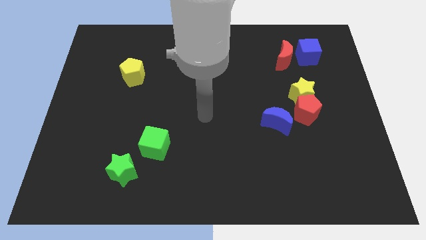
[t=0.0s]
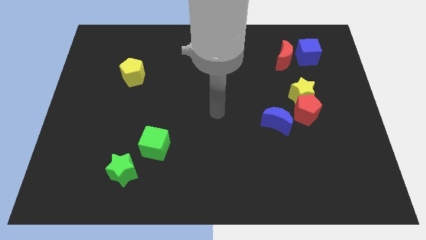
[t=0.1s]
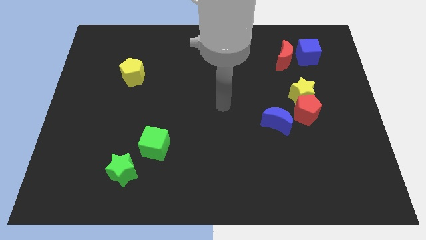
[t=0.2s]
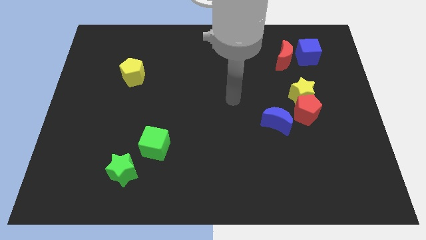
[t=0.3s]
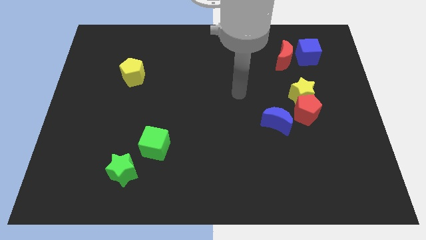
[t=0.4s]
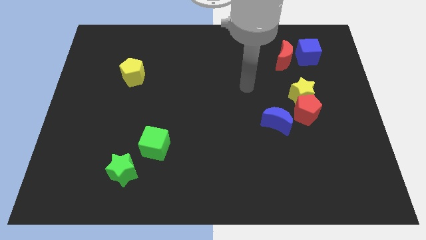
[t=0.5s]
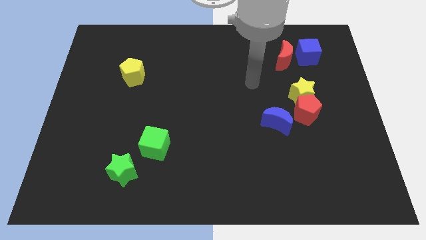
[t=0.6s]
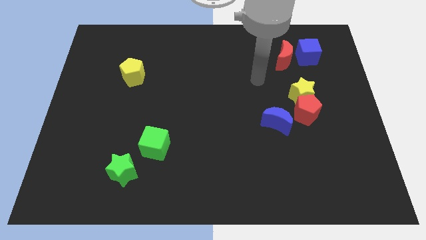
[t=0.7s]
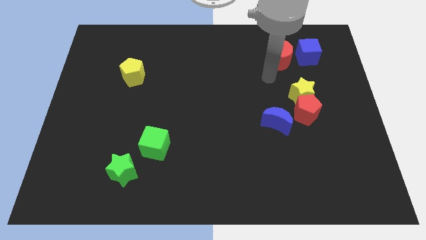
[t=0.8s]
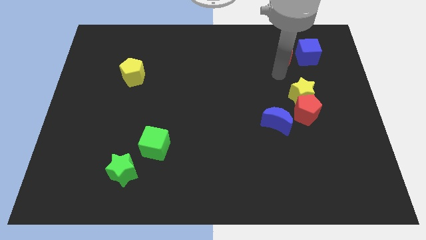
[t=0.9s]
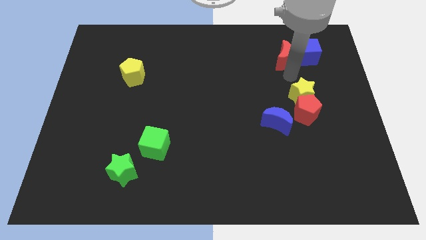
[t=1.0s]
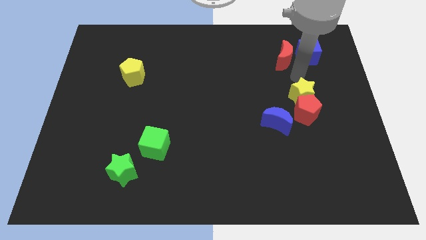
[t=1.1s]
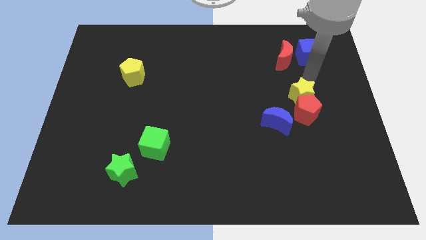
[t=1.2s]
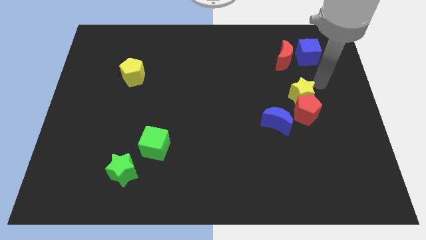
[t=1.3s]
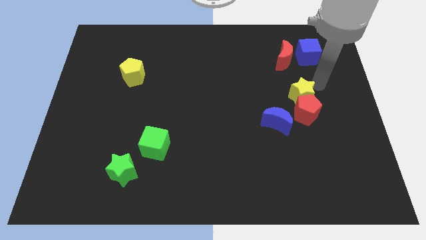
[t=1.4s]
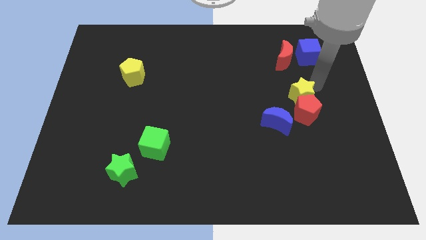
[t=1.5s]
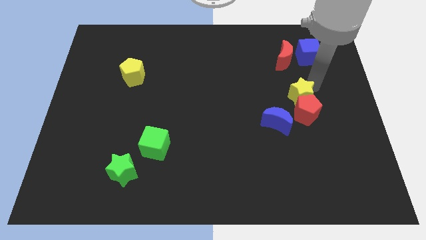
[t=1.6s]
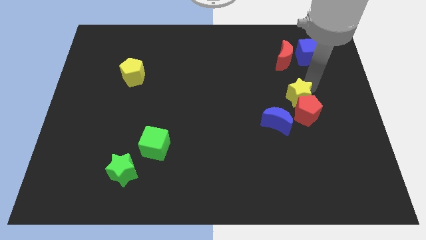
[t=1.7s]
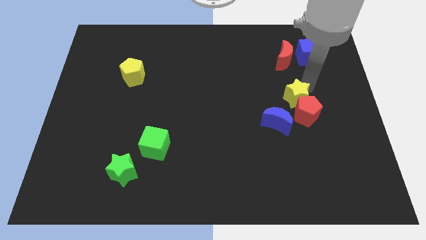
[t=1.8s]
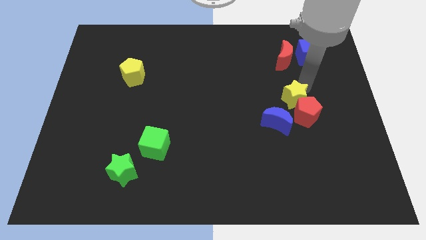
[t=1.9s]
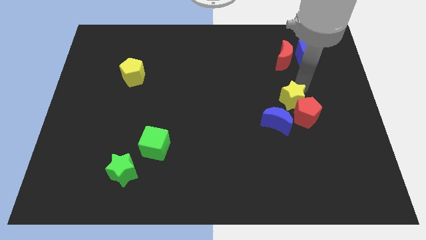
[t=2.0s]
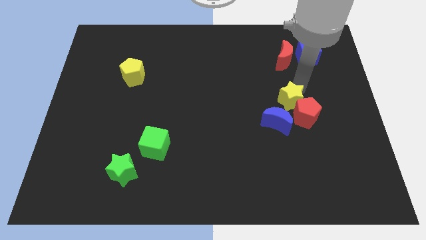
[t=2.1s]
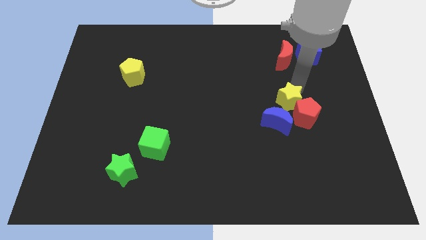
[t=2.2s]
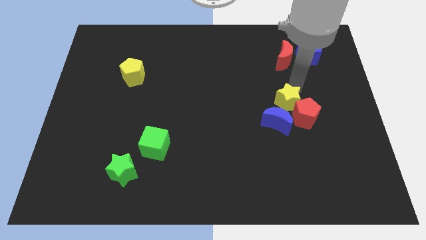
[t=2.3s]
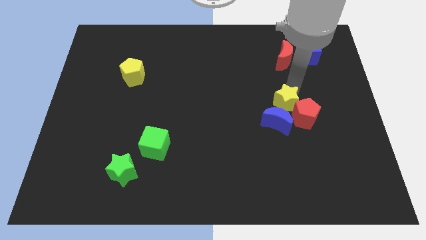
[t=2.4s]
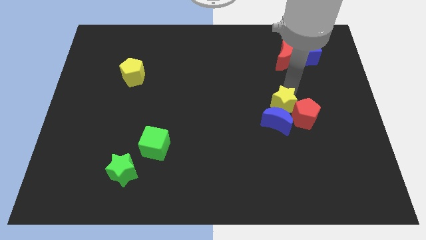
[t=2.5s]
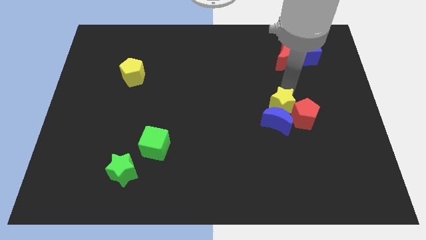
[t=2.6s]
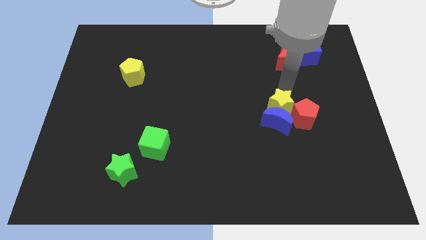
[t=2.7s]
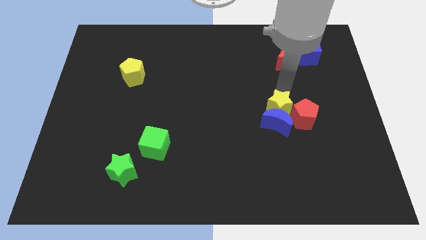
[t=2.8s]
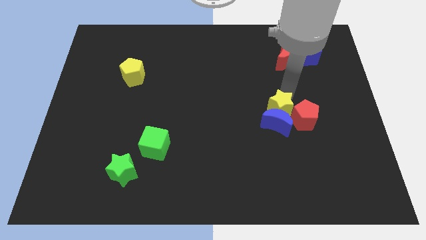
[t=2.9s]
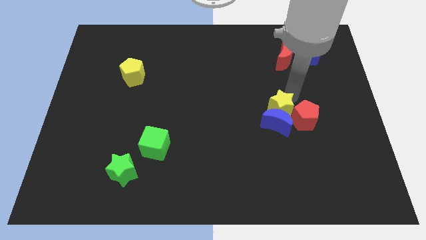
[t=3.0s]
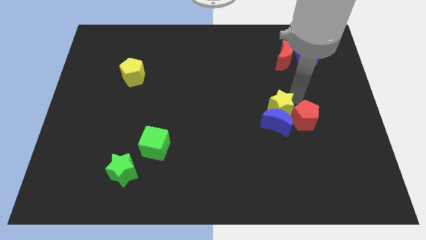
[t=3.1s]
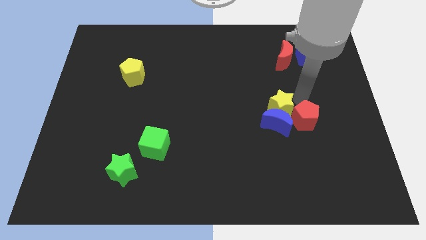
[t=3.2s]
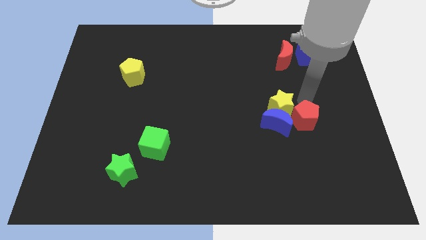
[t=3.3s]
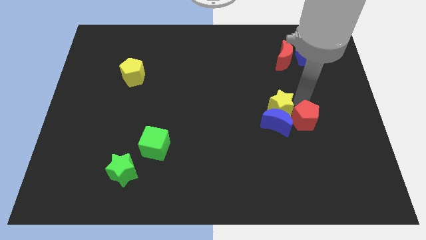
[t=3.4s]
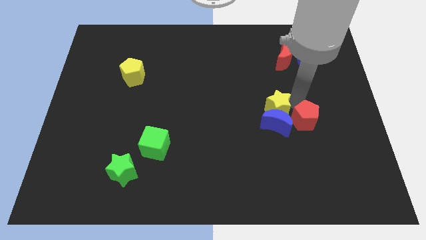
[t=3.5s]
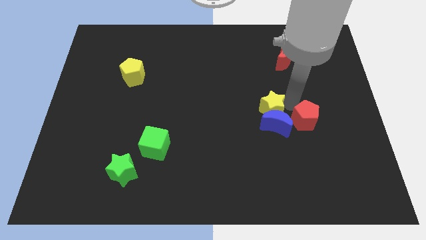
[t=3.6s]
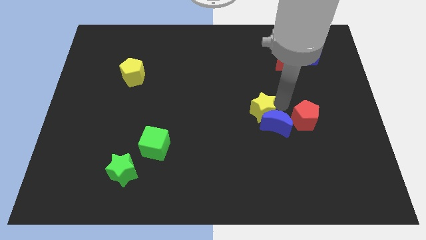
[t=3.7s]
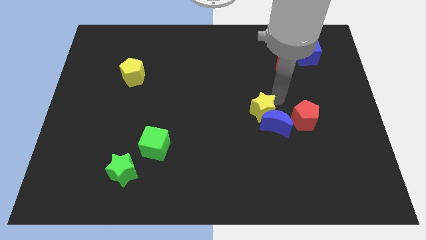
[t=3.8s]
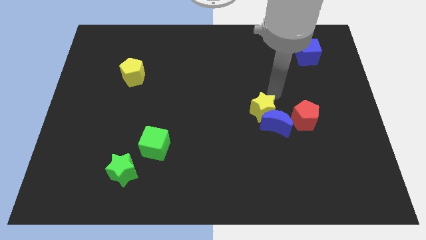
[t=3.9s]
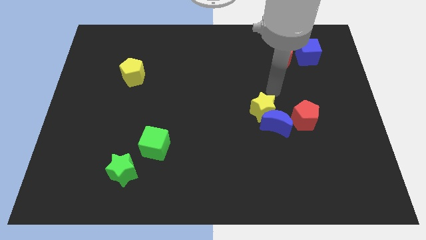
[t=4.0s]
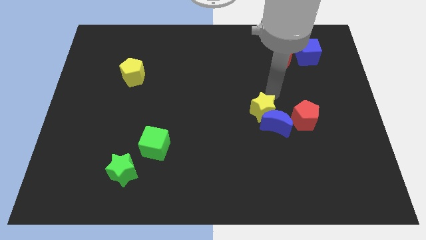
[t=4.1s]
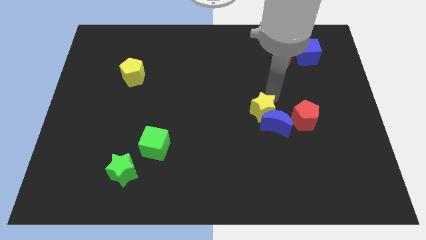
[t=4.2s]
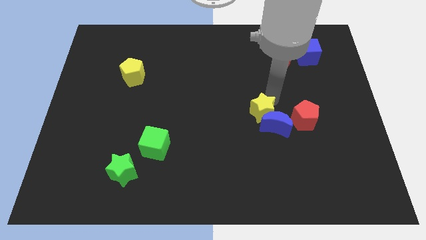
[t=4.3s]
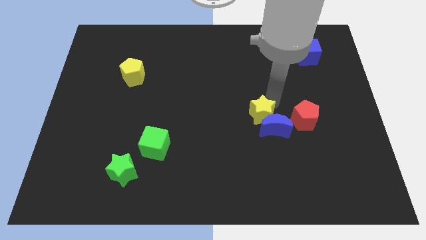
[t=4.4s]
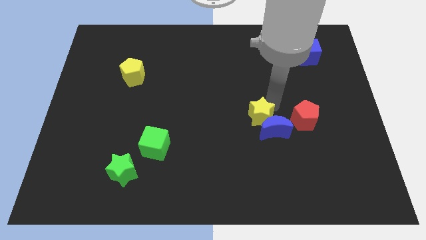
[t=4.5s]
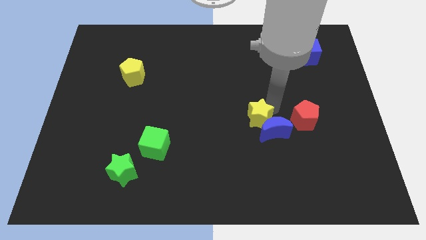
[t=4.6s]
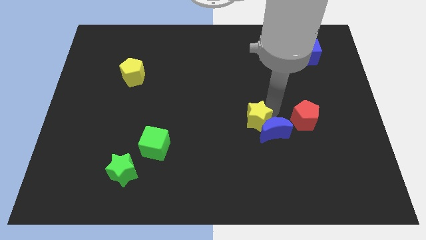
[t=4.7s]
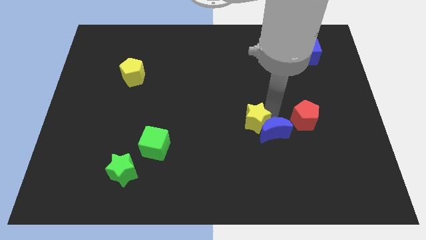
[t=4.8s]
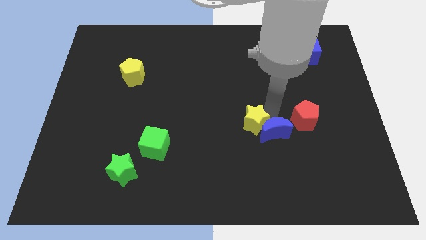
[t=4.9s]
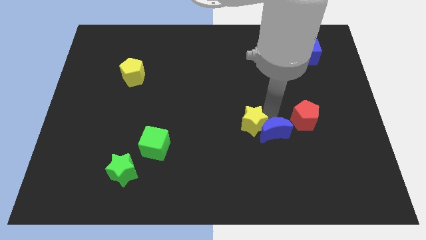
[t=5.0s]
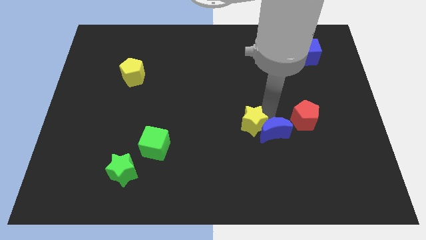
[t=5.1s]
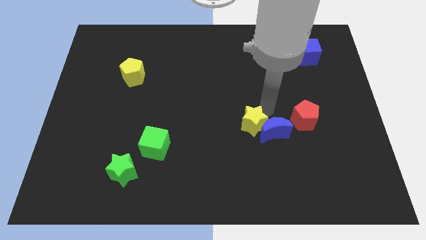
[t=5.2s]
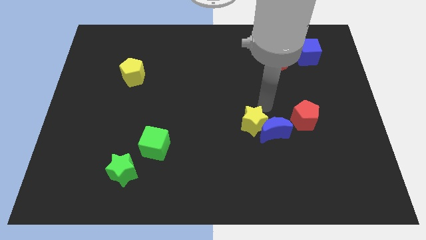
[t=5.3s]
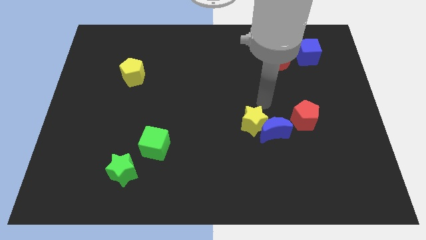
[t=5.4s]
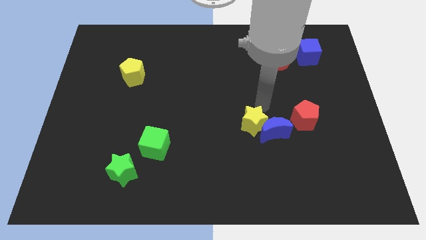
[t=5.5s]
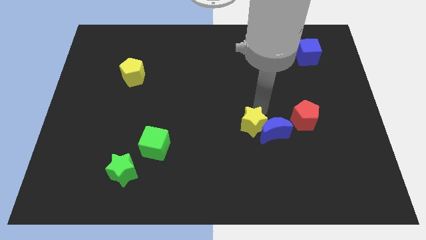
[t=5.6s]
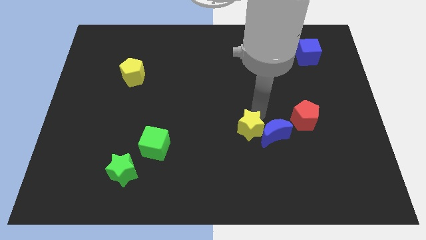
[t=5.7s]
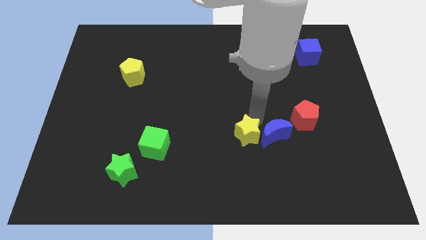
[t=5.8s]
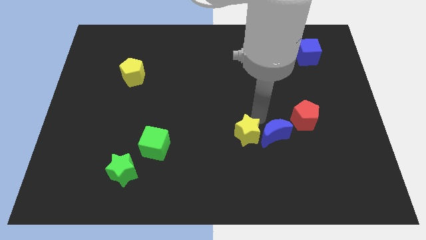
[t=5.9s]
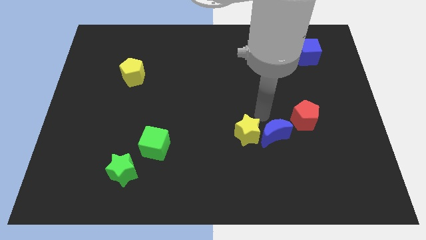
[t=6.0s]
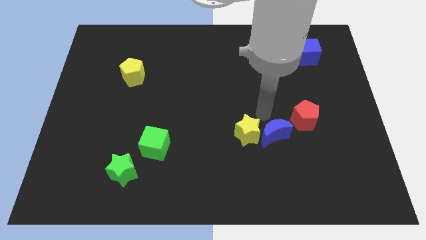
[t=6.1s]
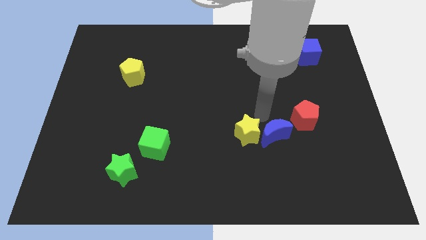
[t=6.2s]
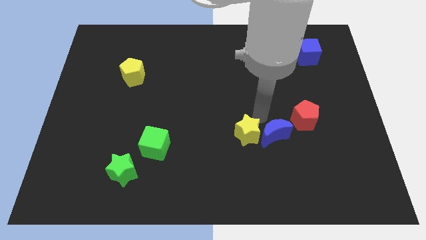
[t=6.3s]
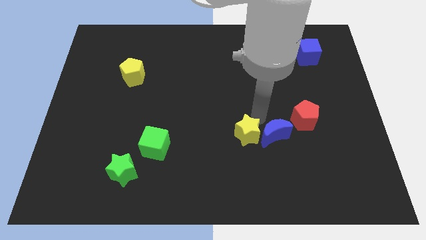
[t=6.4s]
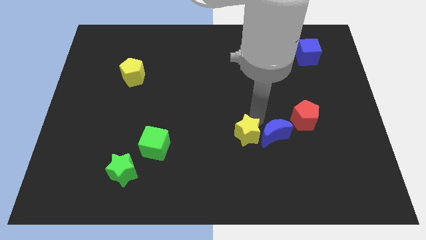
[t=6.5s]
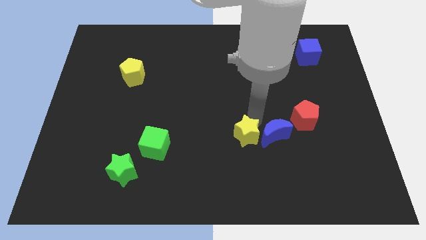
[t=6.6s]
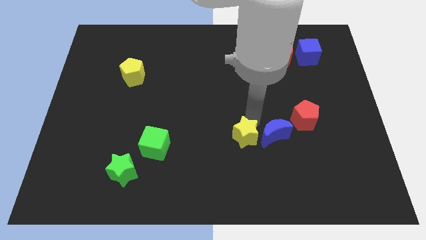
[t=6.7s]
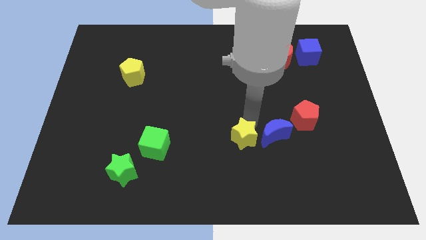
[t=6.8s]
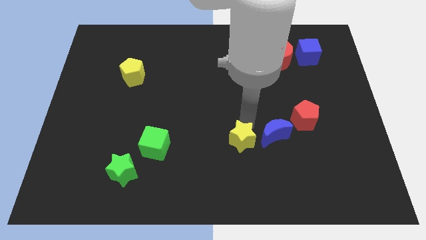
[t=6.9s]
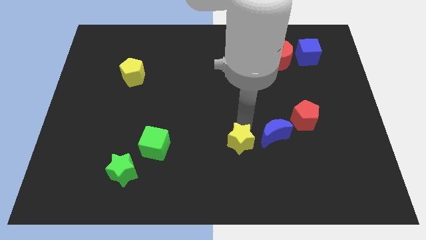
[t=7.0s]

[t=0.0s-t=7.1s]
push the yellow star down and then left

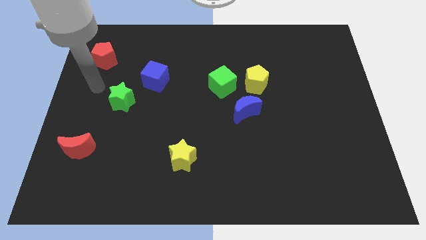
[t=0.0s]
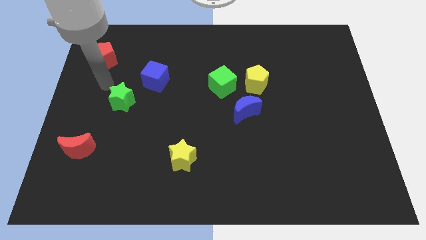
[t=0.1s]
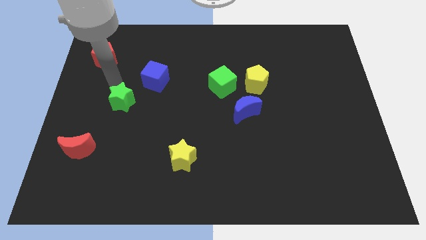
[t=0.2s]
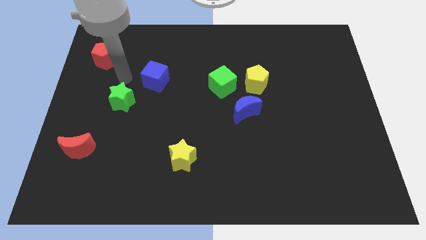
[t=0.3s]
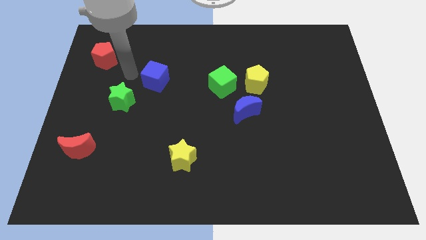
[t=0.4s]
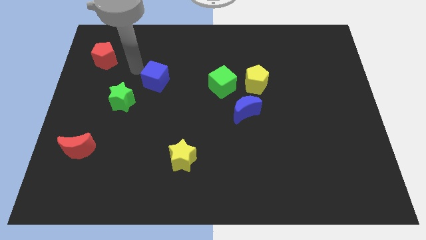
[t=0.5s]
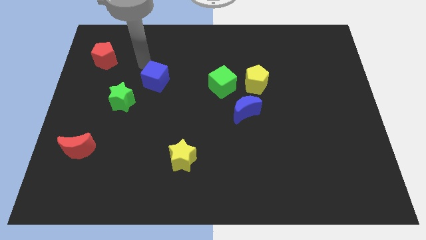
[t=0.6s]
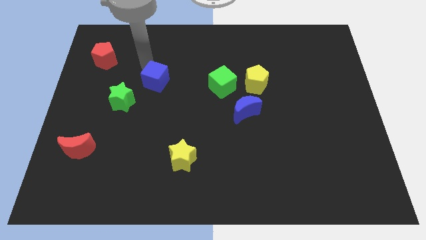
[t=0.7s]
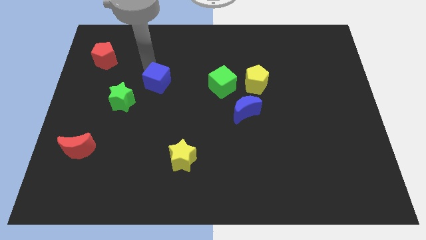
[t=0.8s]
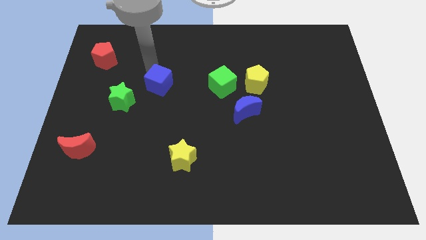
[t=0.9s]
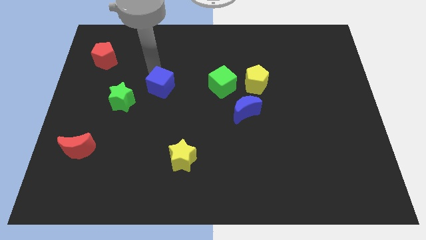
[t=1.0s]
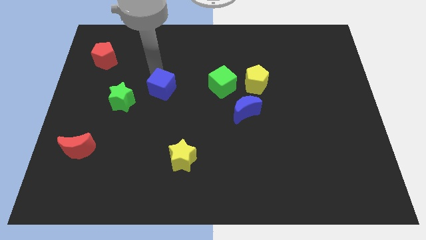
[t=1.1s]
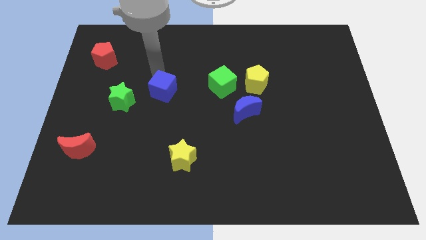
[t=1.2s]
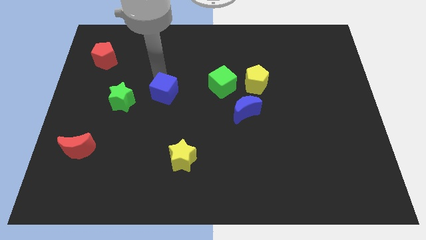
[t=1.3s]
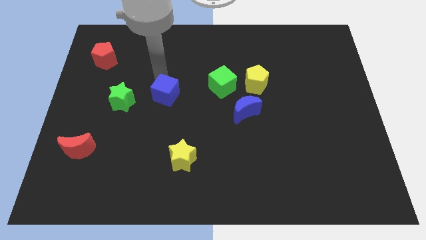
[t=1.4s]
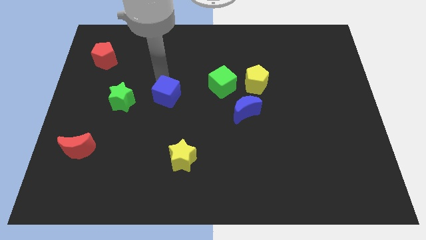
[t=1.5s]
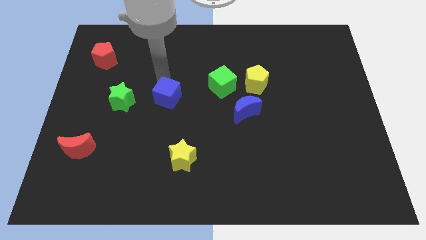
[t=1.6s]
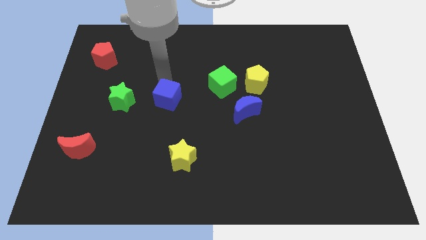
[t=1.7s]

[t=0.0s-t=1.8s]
slide the blue cube a little bit diagonally down and to the right
